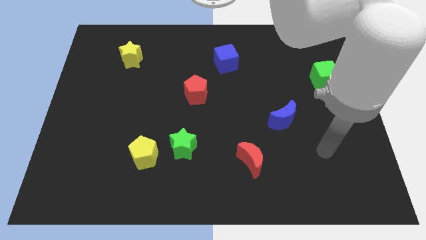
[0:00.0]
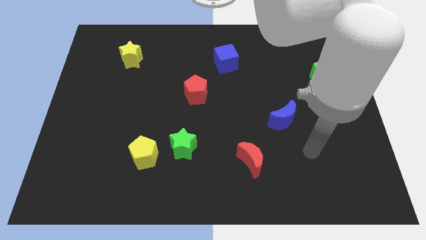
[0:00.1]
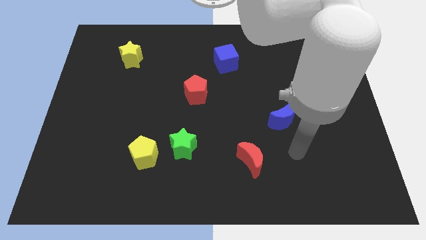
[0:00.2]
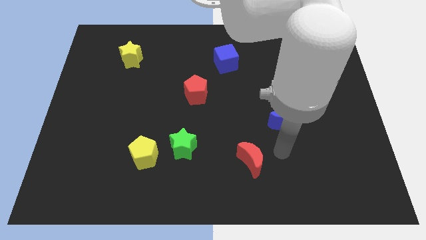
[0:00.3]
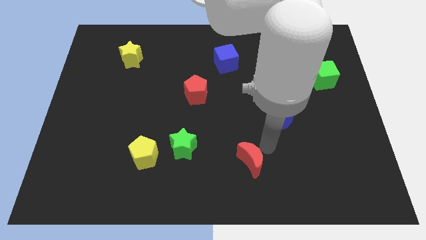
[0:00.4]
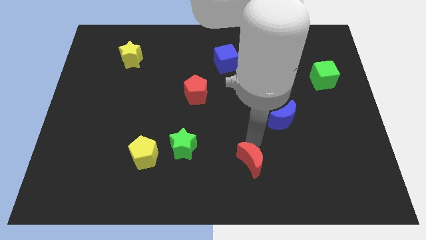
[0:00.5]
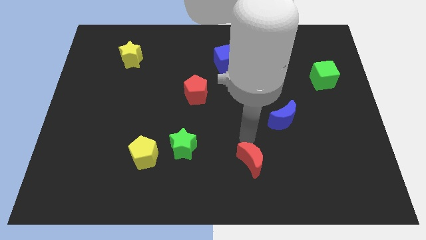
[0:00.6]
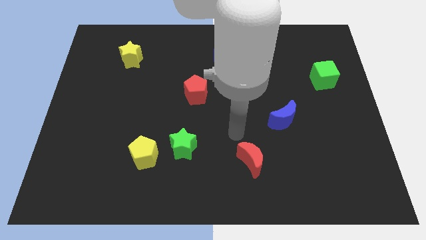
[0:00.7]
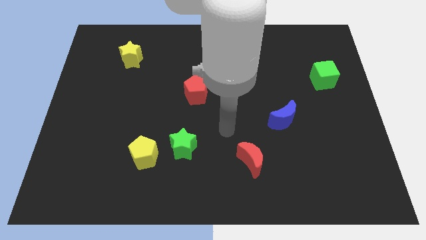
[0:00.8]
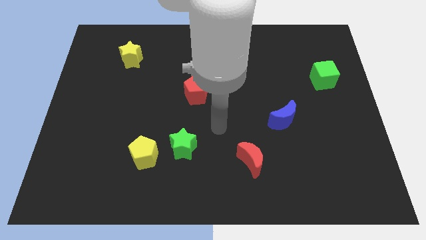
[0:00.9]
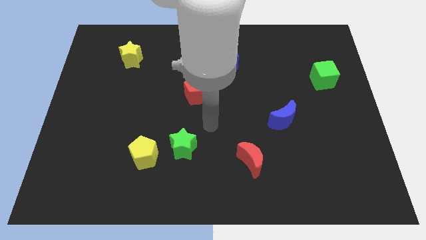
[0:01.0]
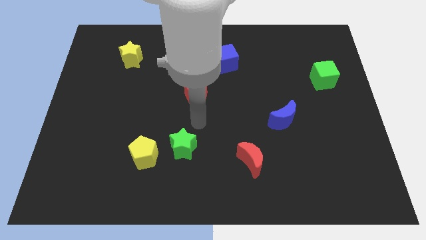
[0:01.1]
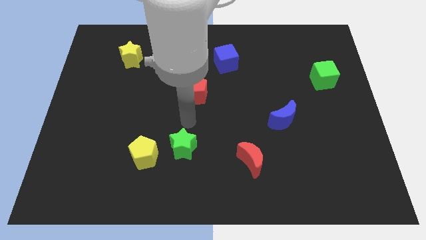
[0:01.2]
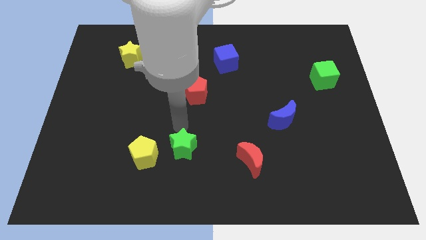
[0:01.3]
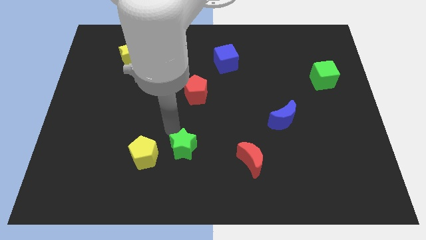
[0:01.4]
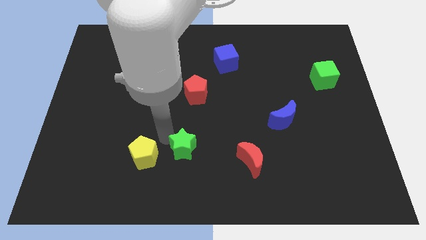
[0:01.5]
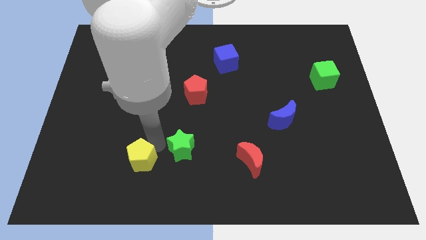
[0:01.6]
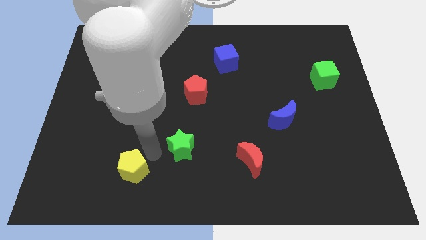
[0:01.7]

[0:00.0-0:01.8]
pull the green star apart from the yellow pentagon

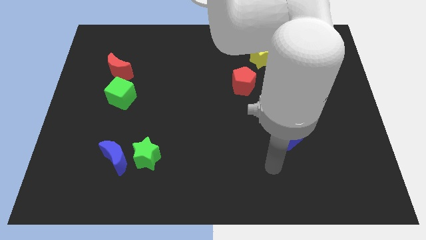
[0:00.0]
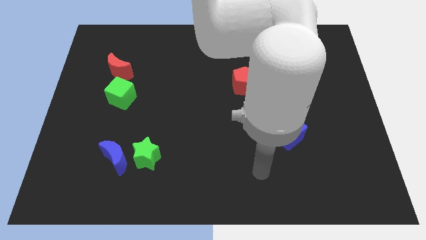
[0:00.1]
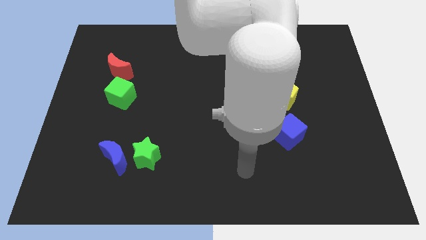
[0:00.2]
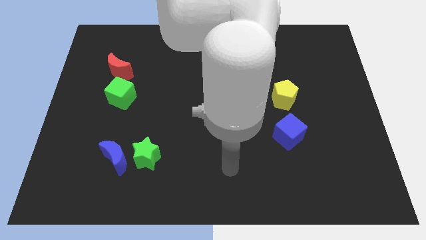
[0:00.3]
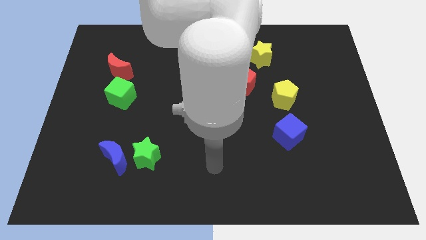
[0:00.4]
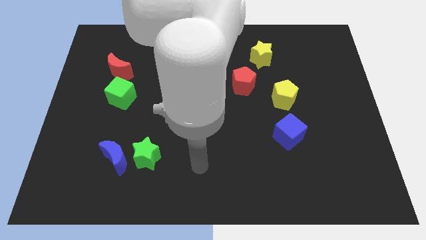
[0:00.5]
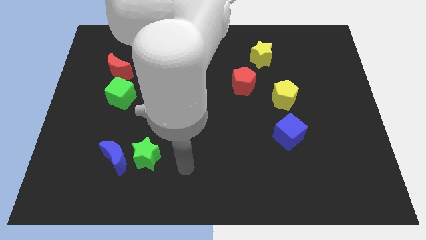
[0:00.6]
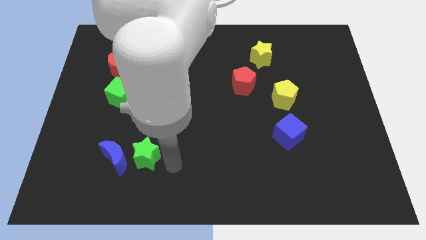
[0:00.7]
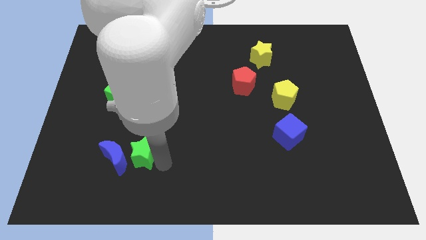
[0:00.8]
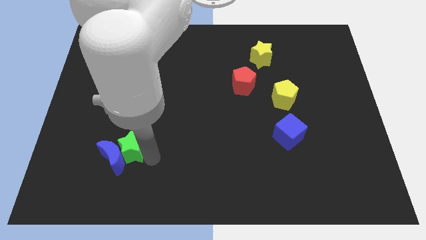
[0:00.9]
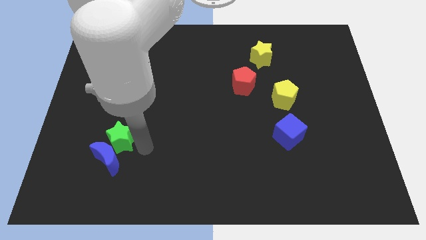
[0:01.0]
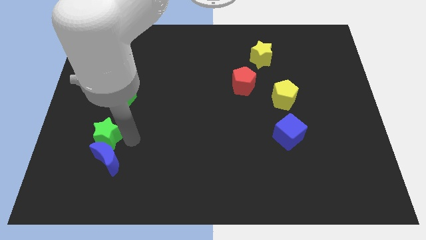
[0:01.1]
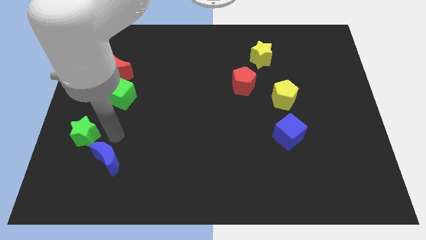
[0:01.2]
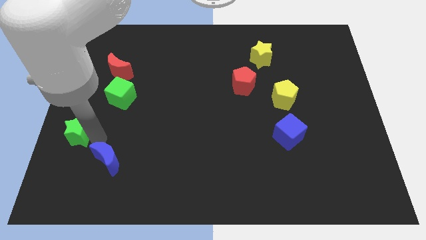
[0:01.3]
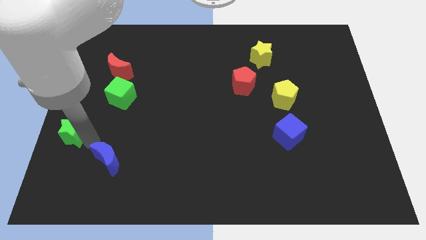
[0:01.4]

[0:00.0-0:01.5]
pull the blue moon apart from the green star

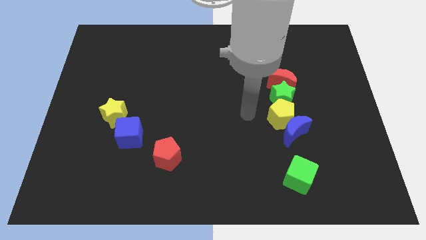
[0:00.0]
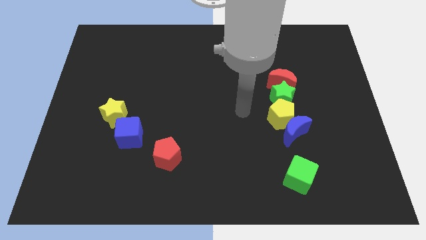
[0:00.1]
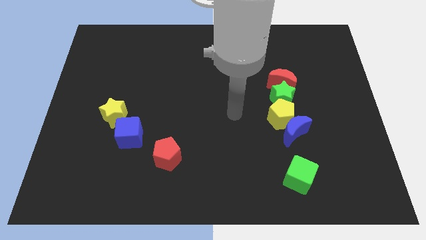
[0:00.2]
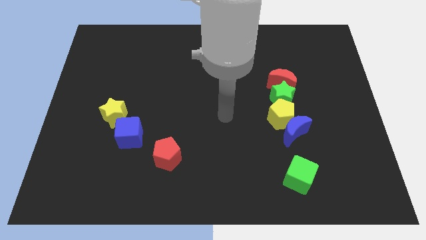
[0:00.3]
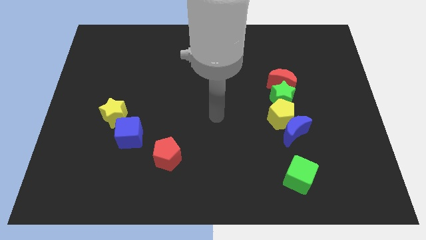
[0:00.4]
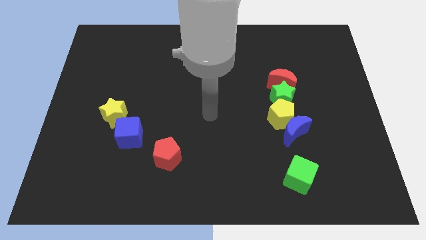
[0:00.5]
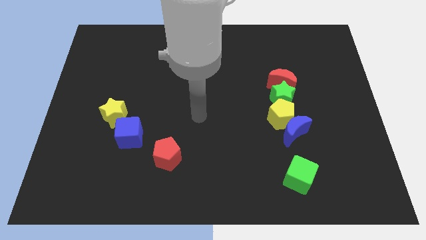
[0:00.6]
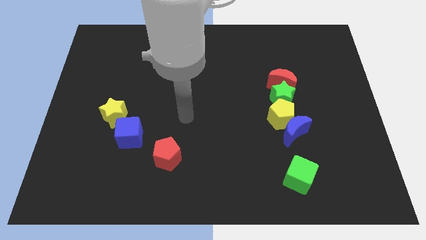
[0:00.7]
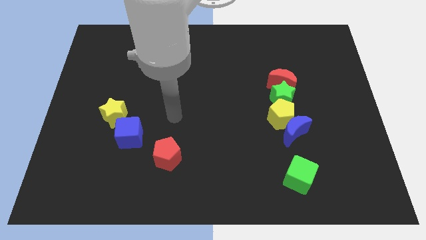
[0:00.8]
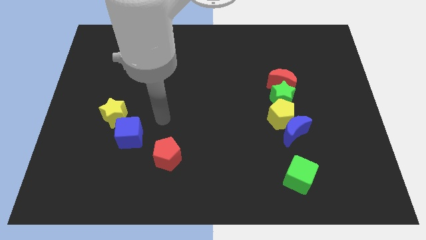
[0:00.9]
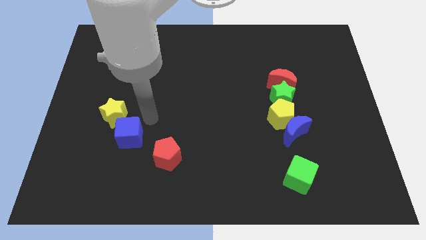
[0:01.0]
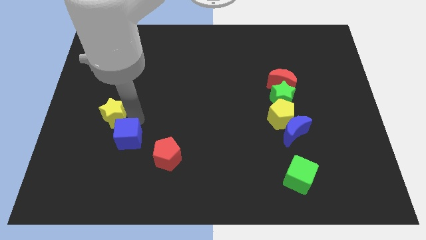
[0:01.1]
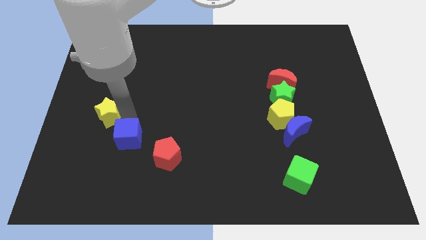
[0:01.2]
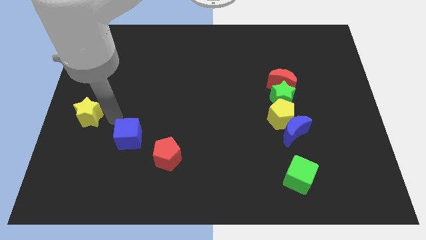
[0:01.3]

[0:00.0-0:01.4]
separate the blue cube from the yellow star

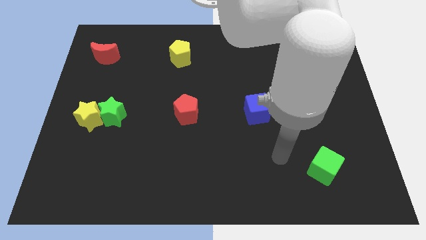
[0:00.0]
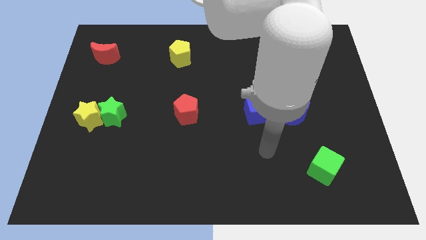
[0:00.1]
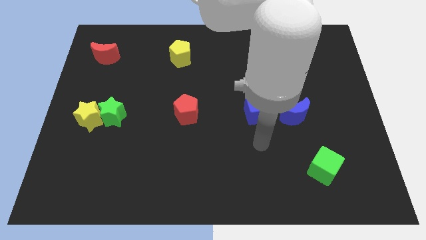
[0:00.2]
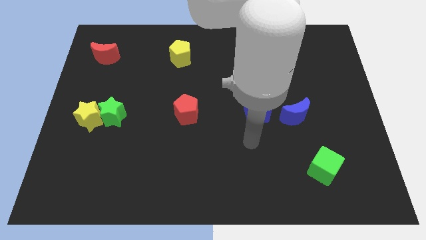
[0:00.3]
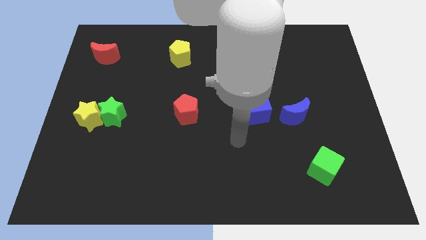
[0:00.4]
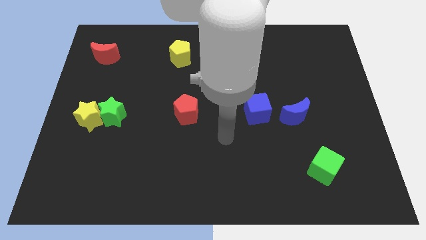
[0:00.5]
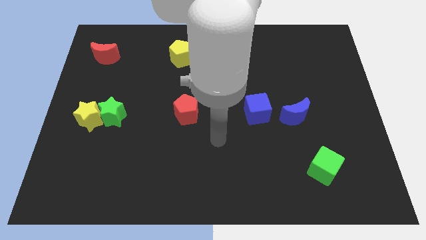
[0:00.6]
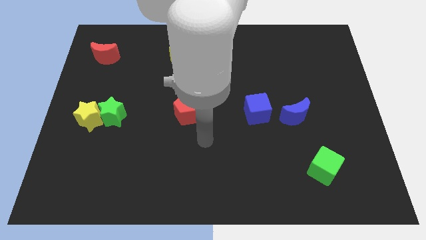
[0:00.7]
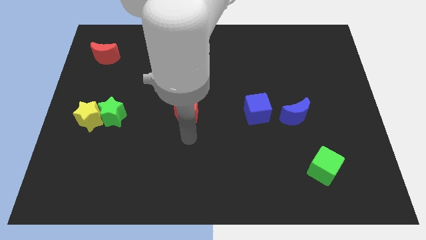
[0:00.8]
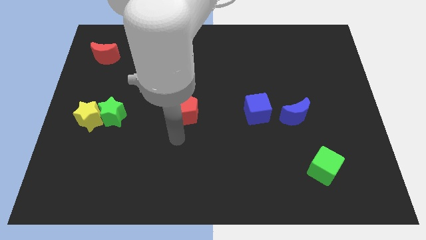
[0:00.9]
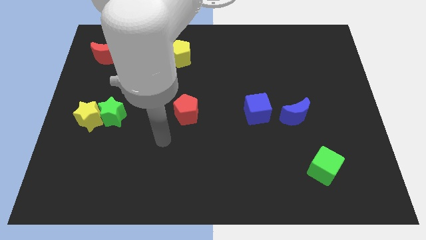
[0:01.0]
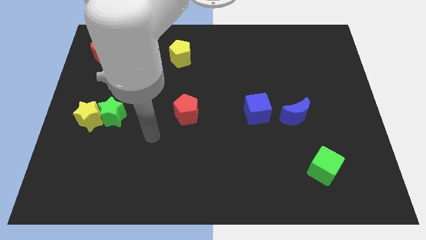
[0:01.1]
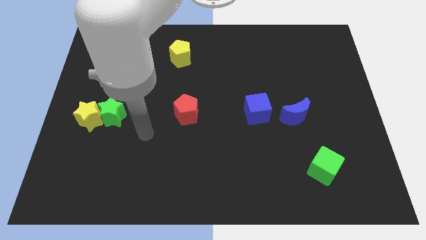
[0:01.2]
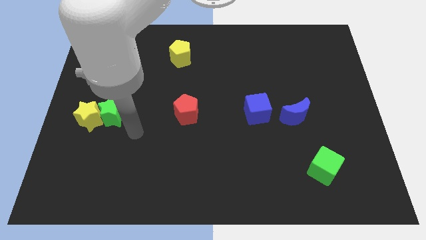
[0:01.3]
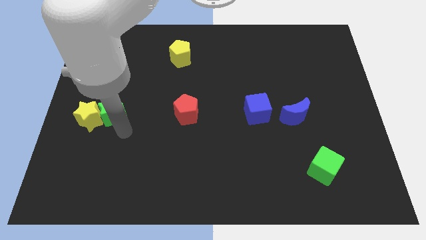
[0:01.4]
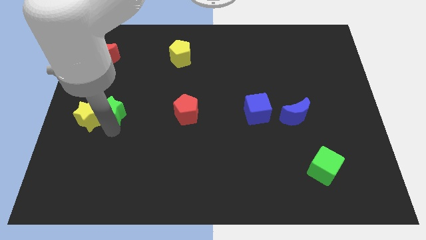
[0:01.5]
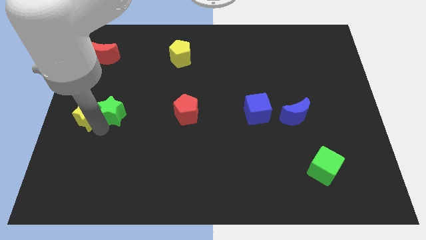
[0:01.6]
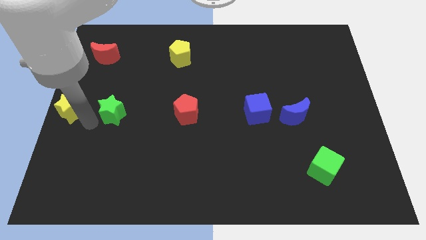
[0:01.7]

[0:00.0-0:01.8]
pull the green star apart from the yellow star

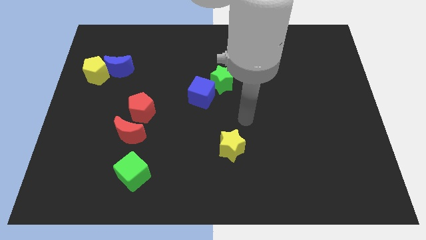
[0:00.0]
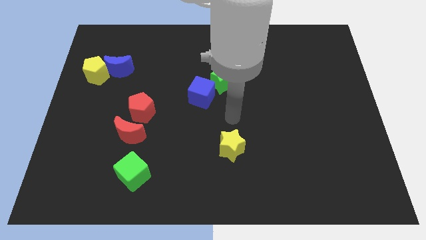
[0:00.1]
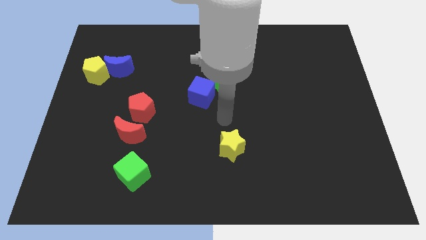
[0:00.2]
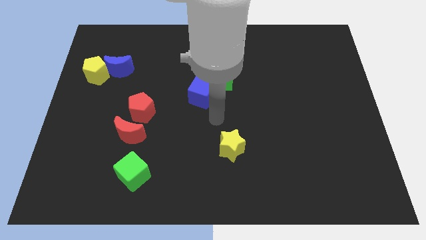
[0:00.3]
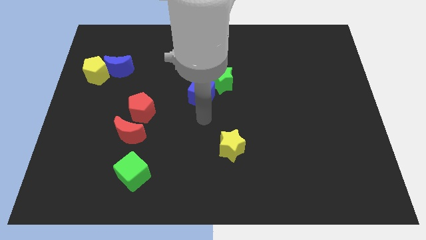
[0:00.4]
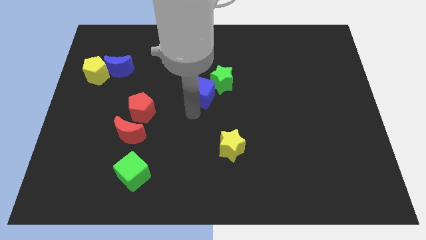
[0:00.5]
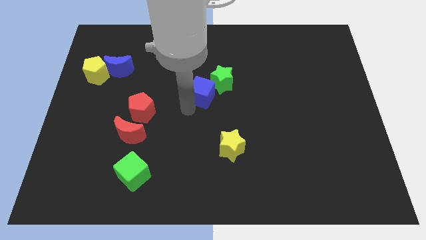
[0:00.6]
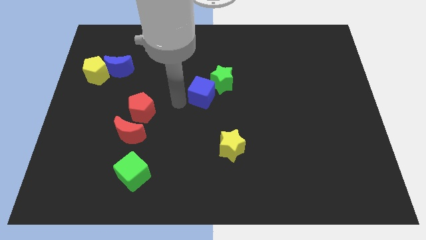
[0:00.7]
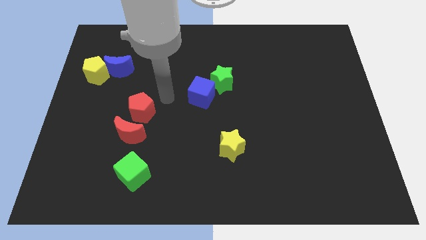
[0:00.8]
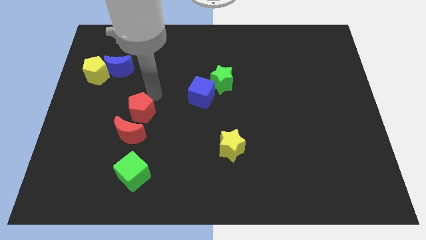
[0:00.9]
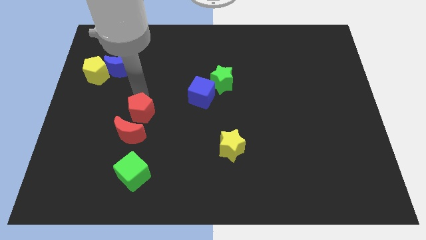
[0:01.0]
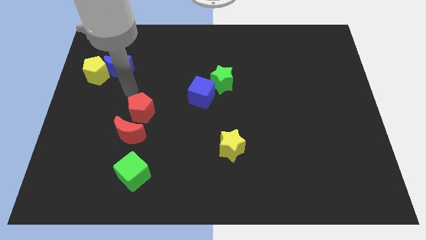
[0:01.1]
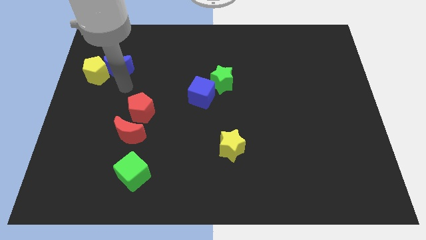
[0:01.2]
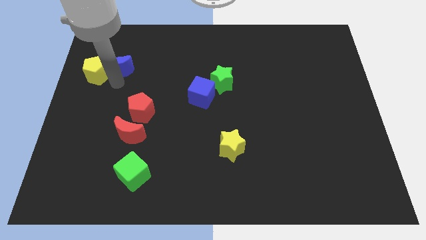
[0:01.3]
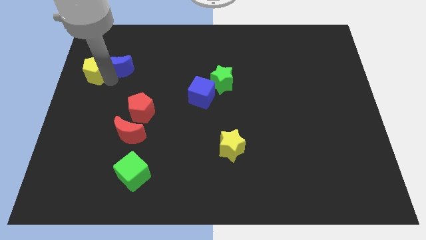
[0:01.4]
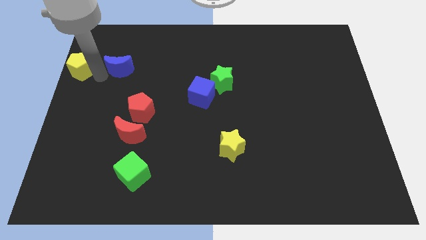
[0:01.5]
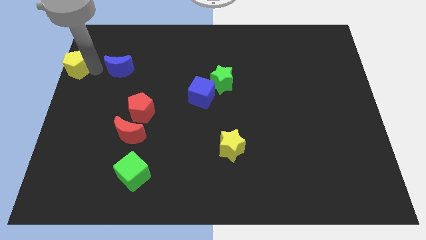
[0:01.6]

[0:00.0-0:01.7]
separate the blue moon from the yellow pentagon

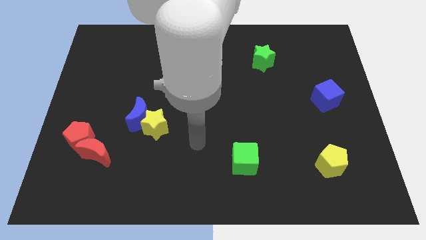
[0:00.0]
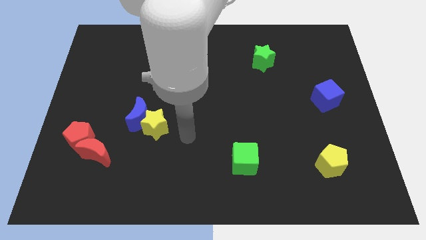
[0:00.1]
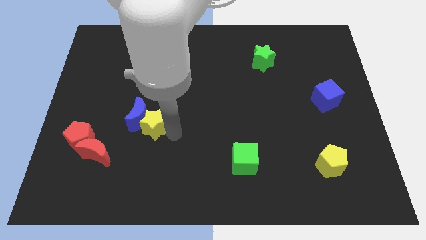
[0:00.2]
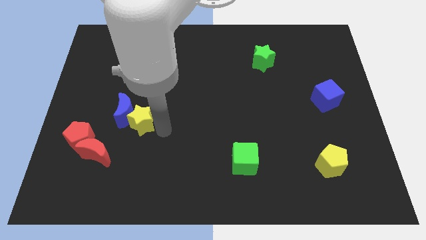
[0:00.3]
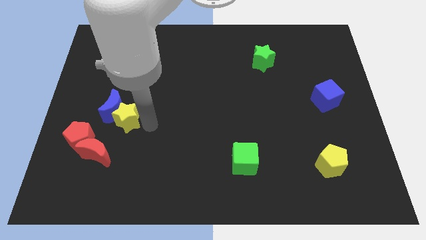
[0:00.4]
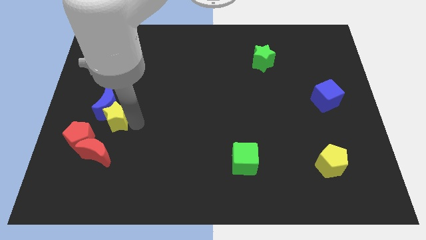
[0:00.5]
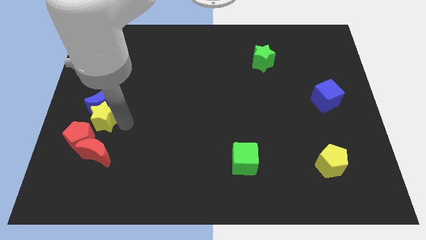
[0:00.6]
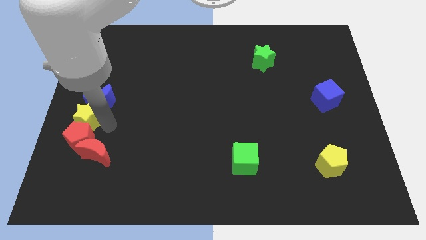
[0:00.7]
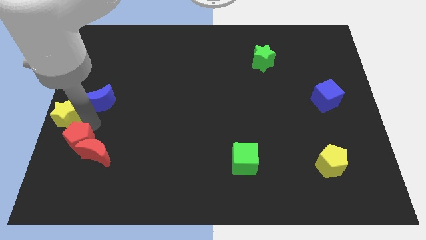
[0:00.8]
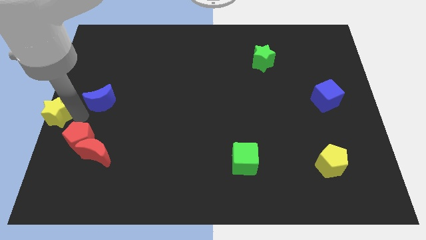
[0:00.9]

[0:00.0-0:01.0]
pull the blue moon apart from the yellow star

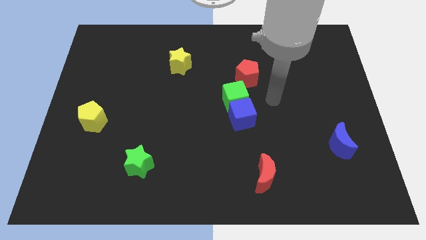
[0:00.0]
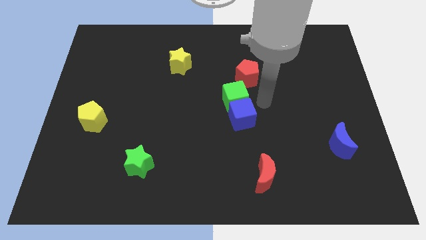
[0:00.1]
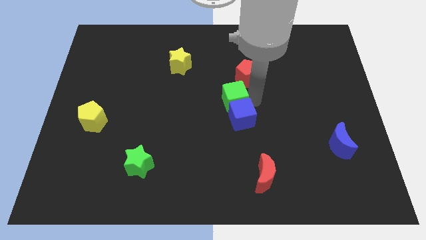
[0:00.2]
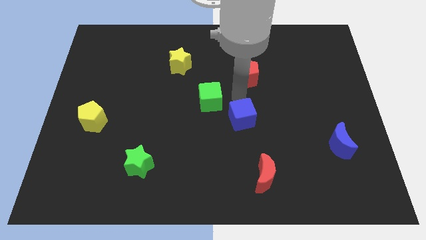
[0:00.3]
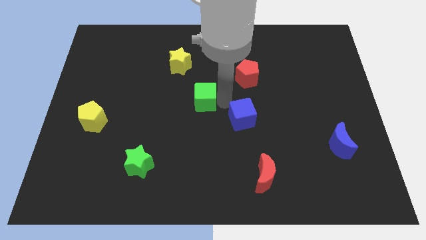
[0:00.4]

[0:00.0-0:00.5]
move the blue cube away from the green cube
